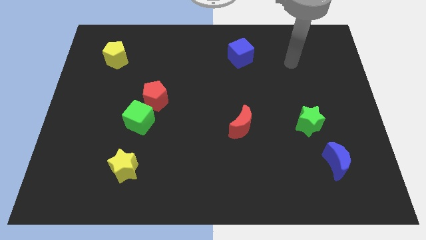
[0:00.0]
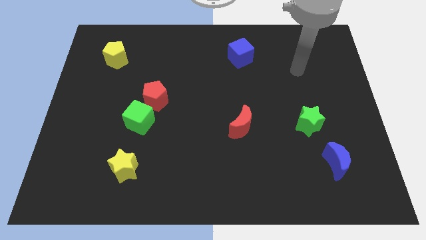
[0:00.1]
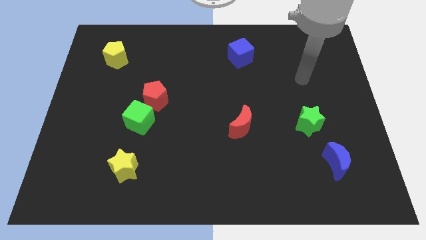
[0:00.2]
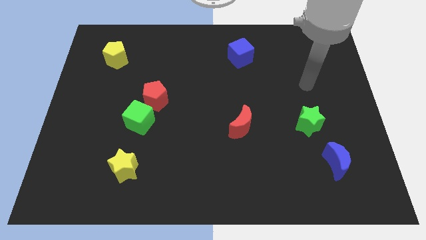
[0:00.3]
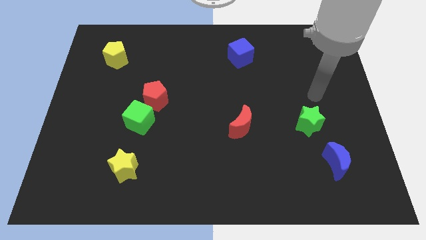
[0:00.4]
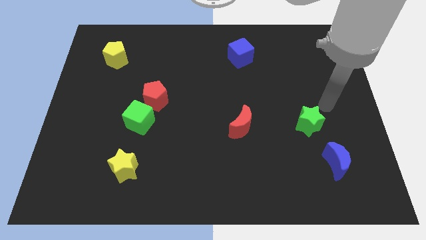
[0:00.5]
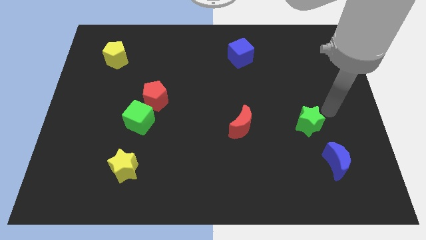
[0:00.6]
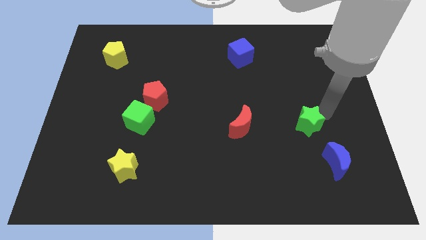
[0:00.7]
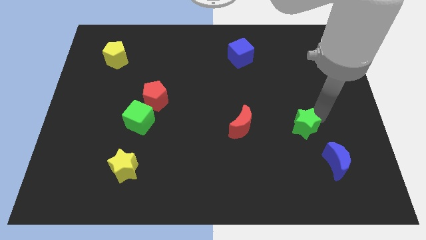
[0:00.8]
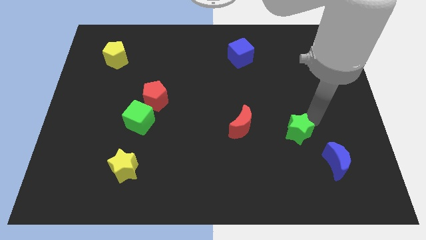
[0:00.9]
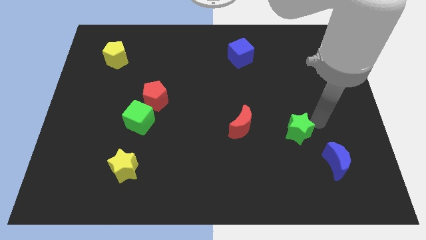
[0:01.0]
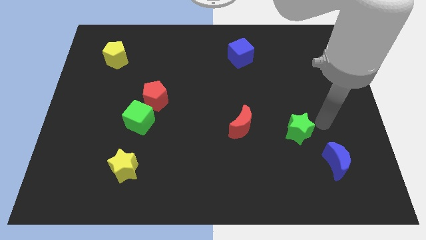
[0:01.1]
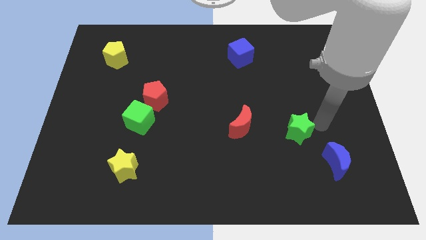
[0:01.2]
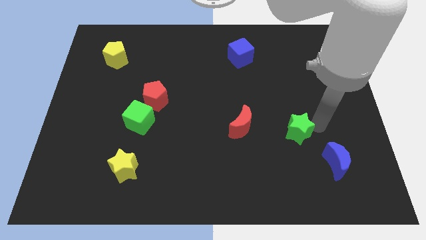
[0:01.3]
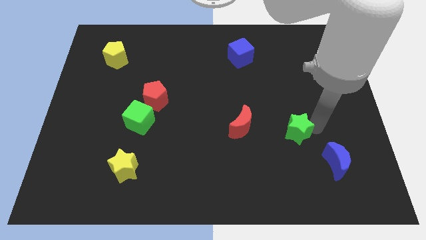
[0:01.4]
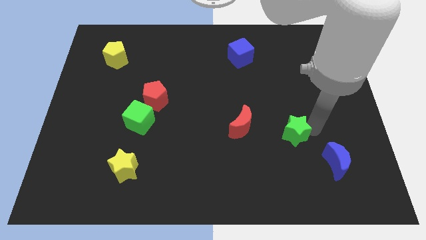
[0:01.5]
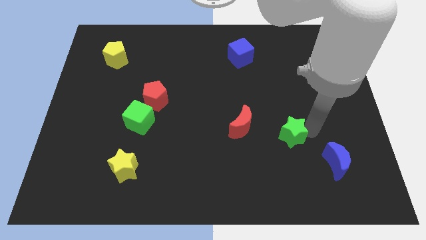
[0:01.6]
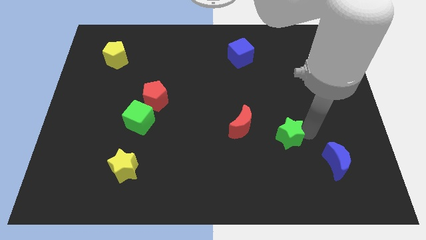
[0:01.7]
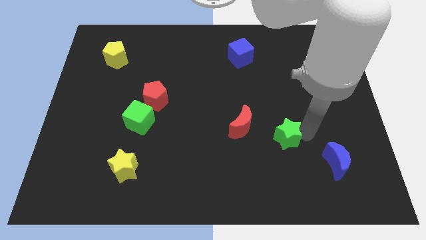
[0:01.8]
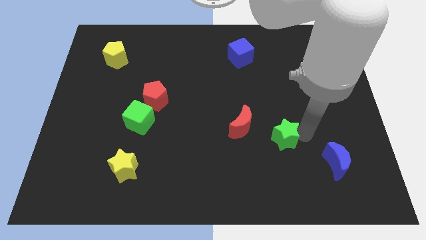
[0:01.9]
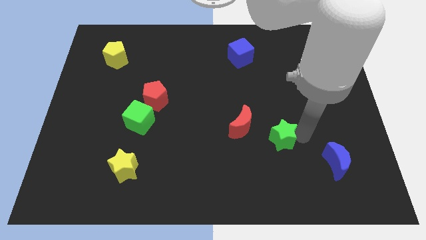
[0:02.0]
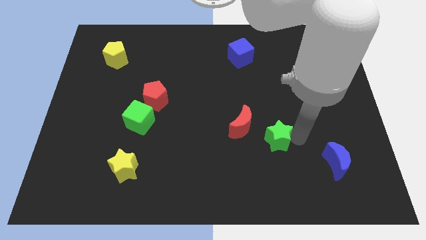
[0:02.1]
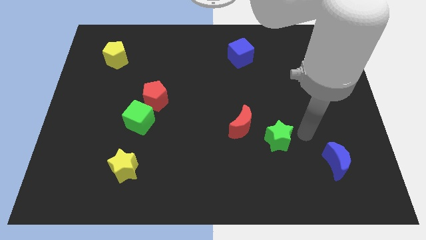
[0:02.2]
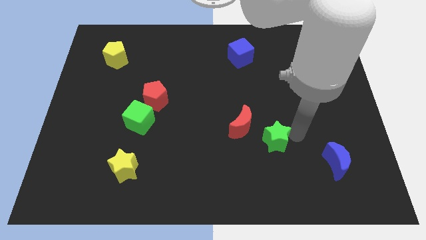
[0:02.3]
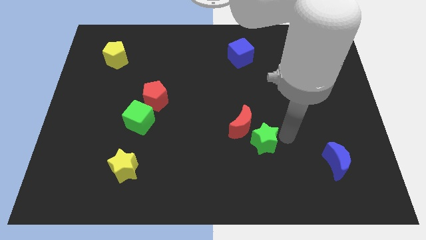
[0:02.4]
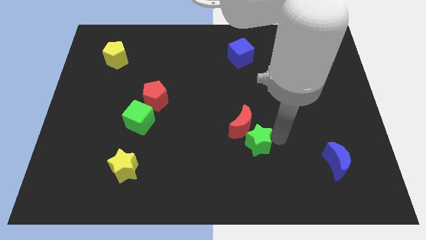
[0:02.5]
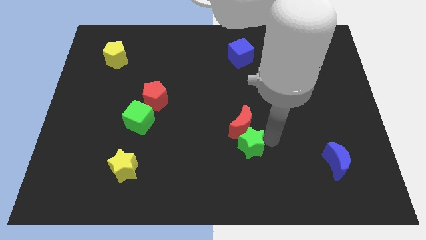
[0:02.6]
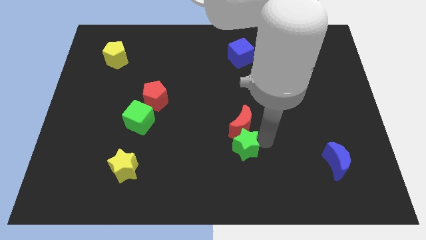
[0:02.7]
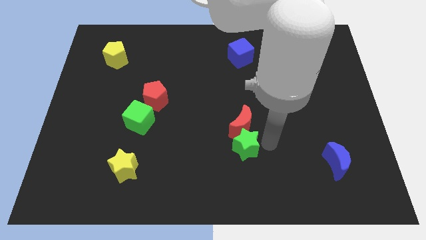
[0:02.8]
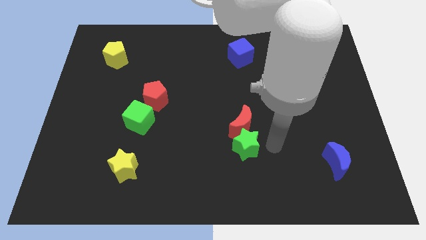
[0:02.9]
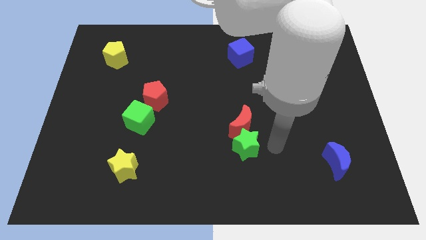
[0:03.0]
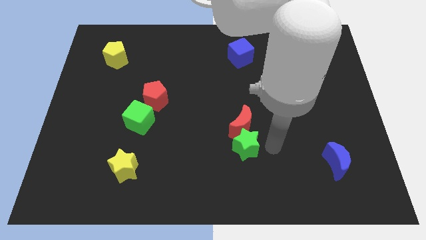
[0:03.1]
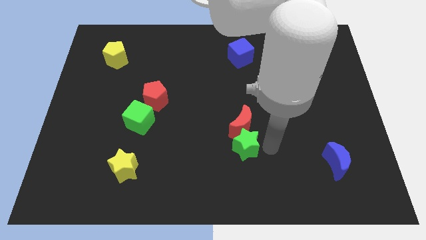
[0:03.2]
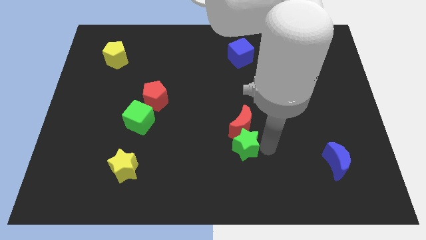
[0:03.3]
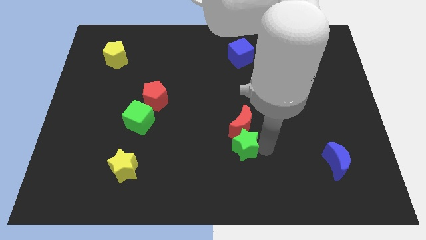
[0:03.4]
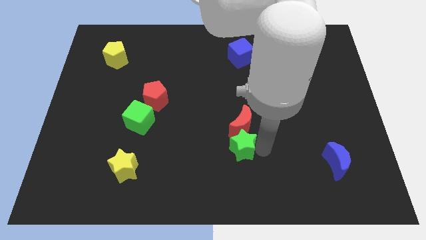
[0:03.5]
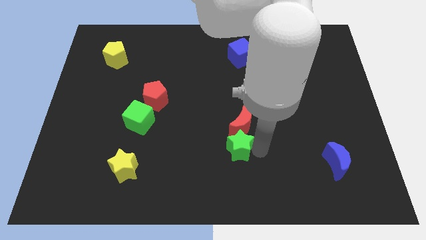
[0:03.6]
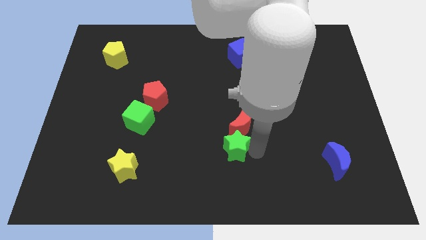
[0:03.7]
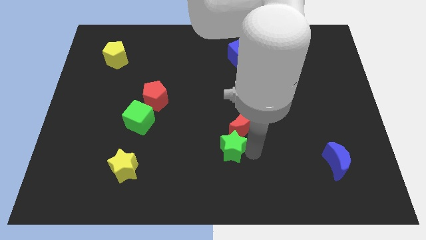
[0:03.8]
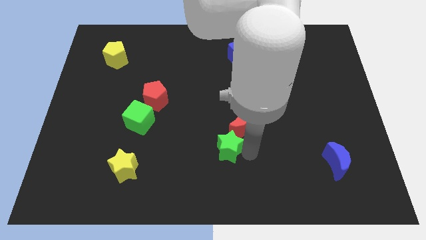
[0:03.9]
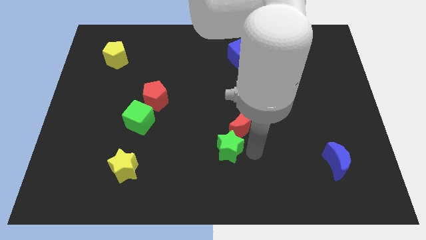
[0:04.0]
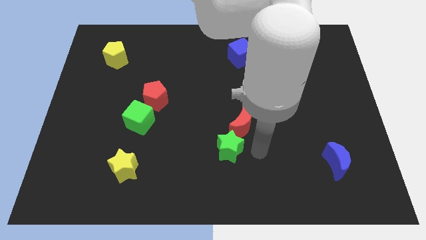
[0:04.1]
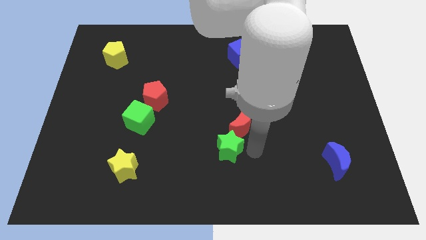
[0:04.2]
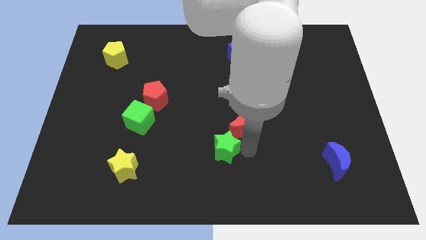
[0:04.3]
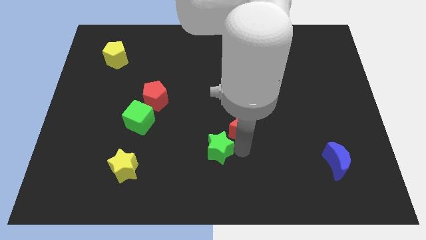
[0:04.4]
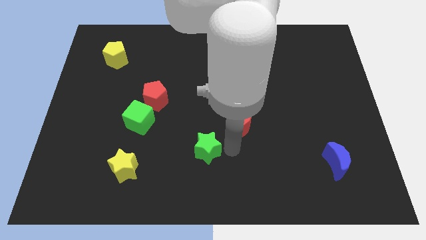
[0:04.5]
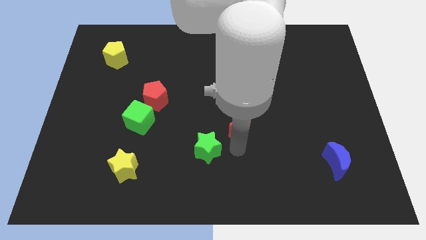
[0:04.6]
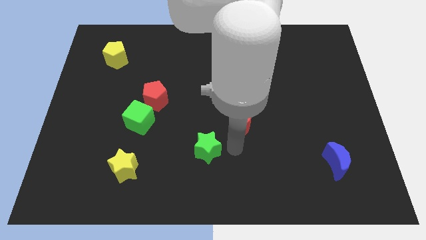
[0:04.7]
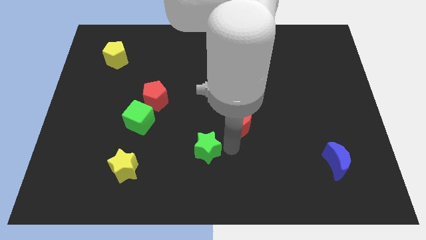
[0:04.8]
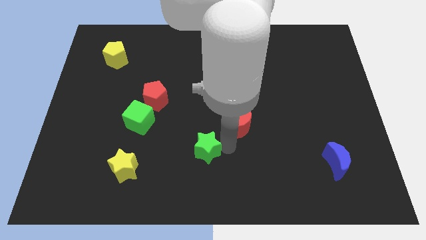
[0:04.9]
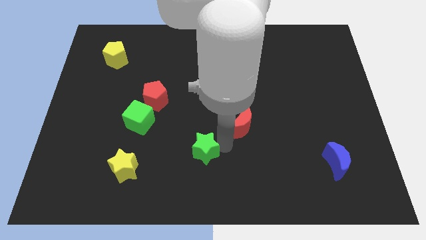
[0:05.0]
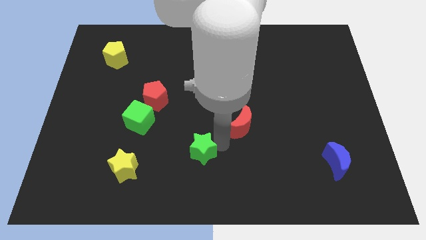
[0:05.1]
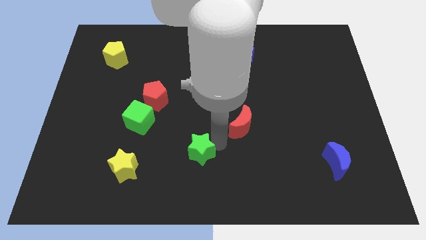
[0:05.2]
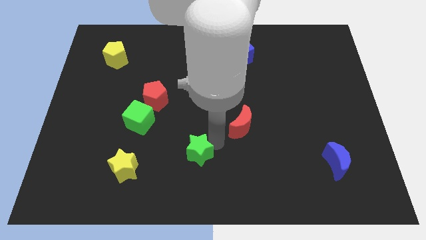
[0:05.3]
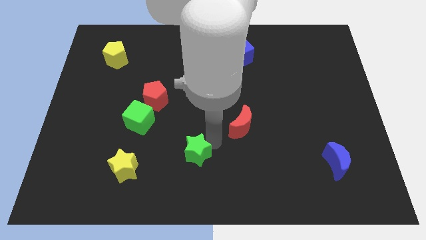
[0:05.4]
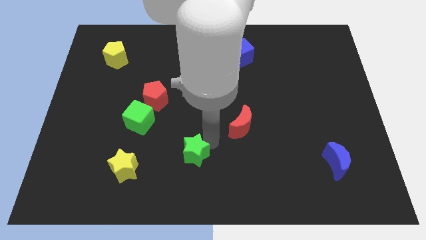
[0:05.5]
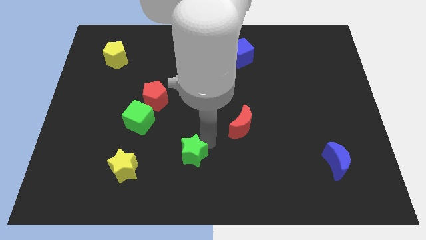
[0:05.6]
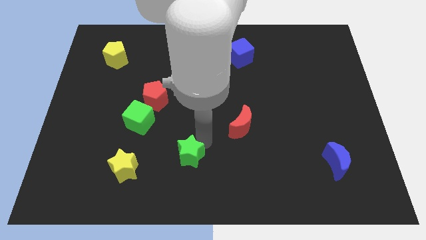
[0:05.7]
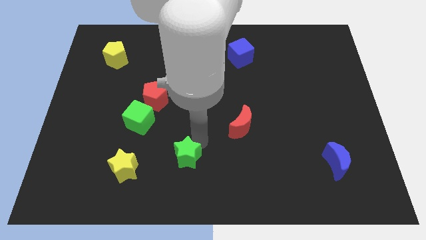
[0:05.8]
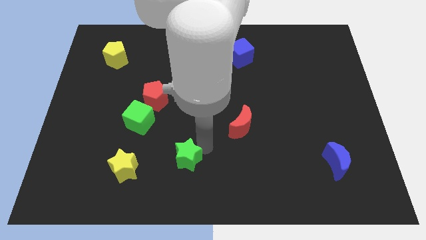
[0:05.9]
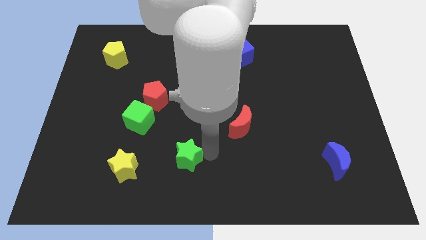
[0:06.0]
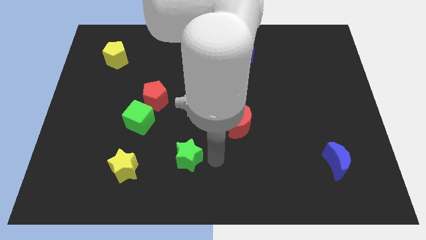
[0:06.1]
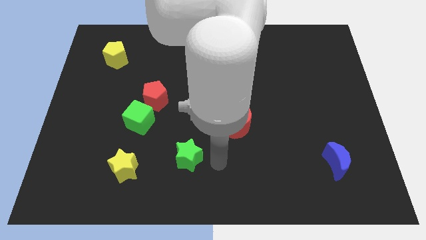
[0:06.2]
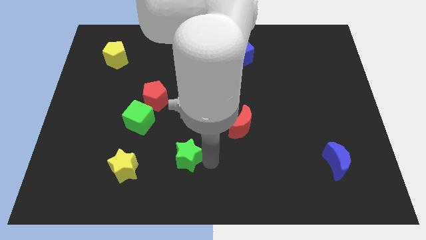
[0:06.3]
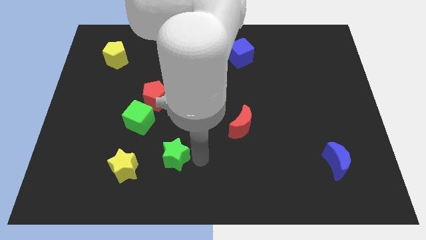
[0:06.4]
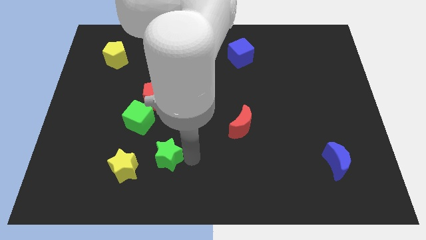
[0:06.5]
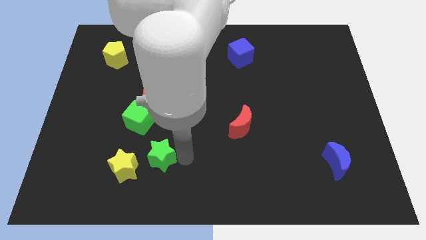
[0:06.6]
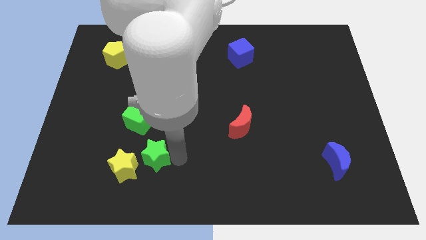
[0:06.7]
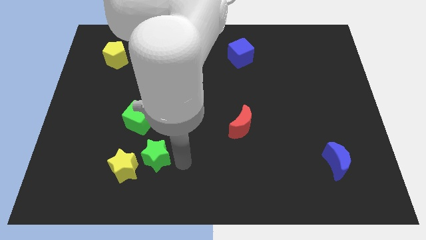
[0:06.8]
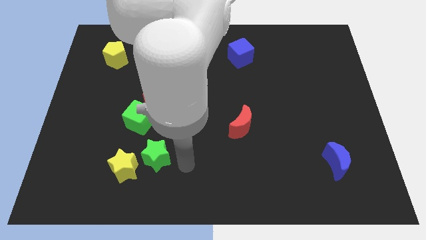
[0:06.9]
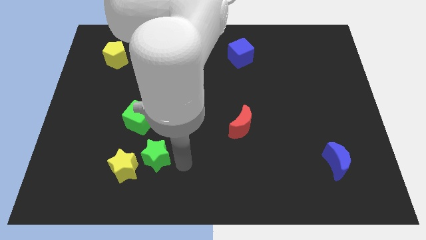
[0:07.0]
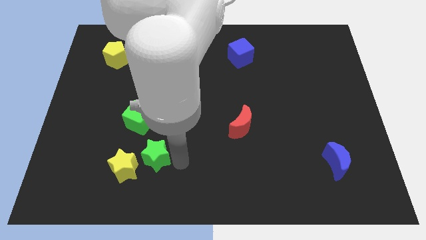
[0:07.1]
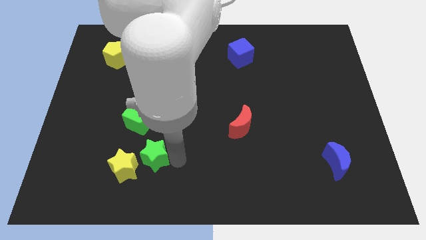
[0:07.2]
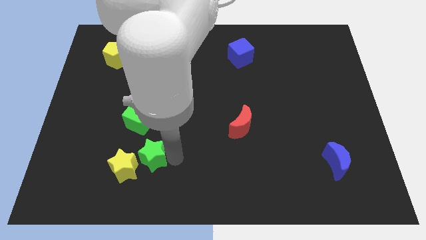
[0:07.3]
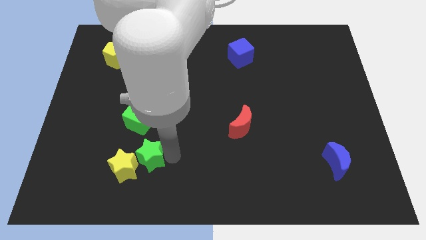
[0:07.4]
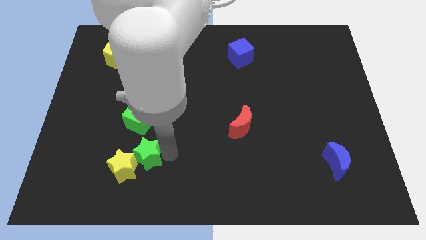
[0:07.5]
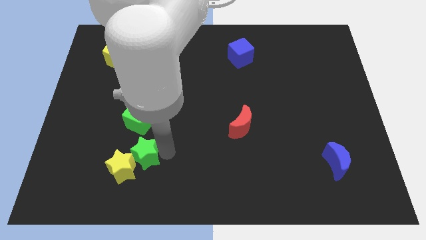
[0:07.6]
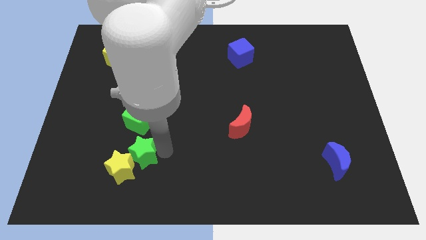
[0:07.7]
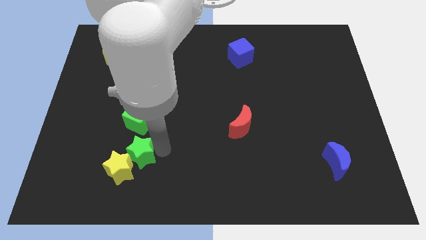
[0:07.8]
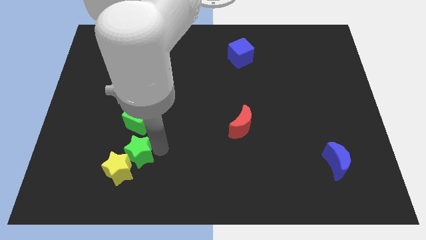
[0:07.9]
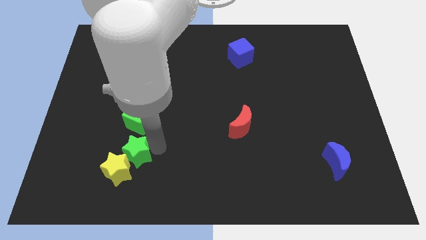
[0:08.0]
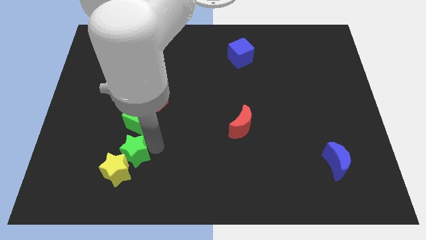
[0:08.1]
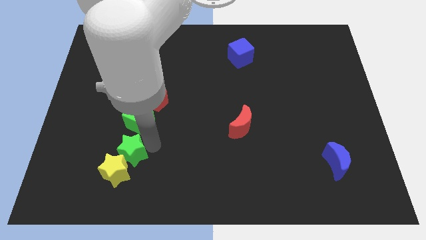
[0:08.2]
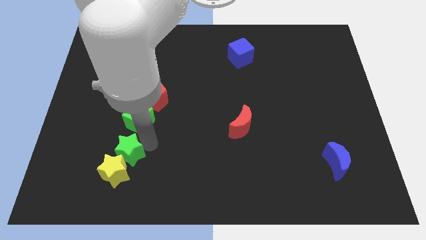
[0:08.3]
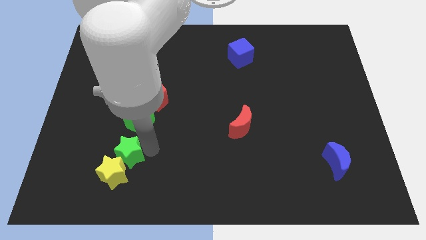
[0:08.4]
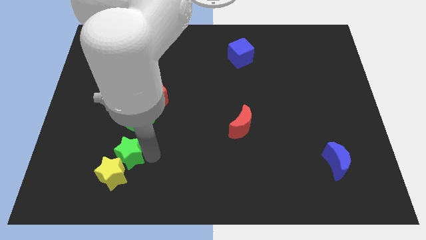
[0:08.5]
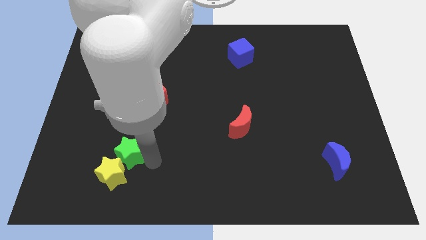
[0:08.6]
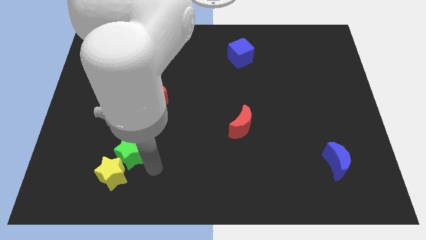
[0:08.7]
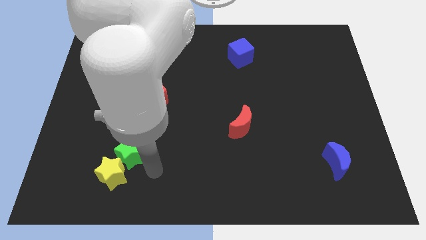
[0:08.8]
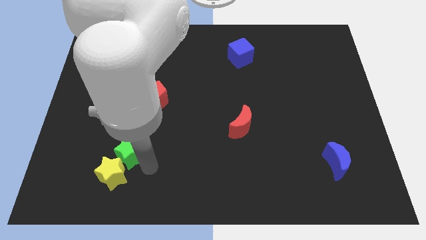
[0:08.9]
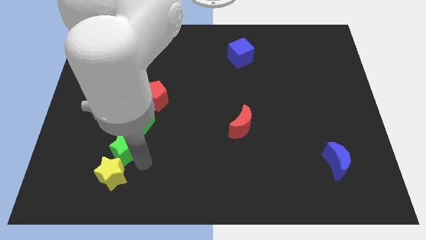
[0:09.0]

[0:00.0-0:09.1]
push the green star diagonally down and to the left of the green cube
